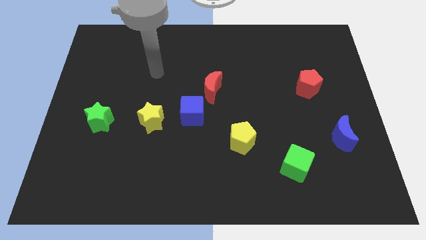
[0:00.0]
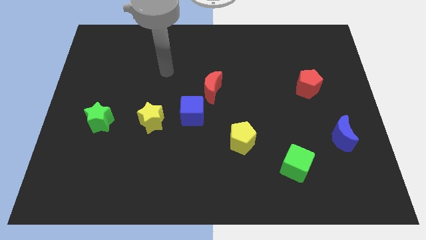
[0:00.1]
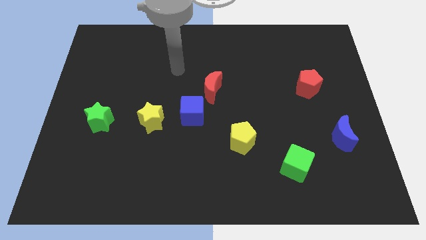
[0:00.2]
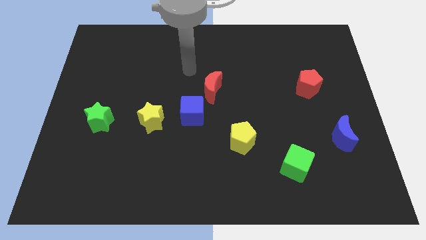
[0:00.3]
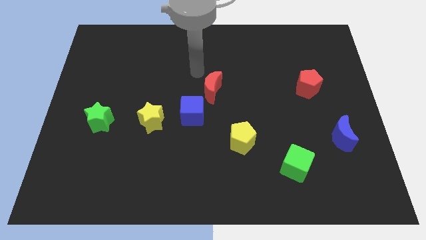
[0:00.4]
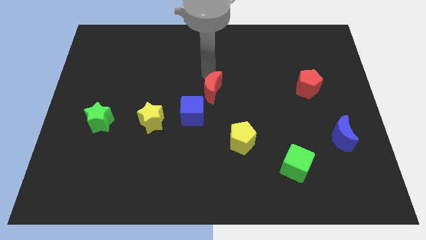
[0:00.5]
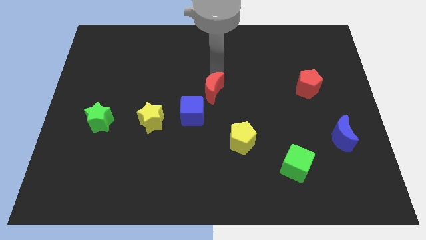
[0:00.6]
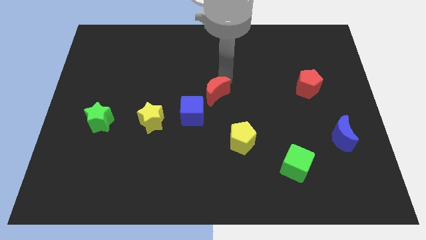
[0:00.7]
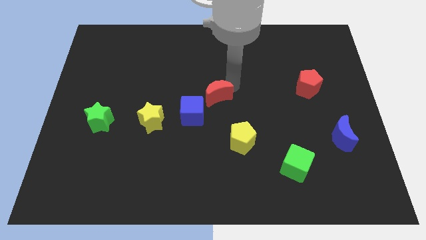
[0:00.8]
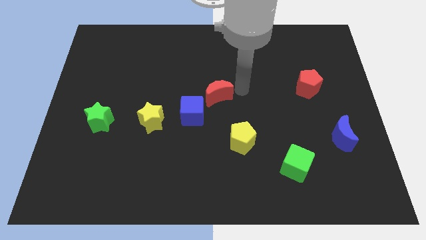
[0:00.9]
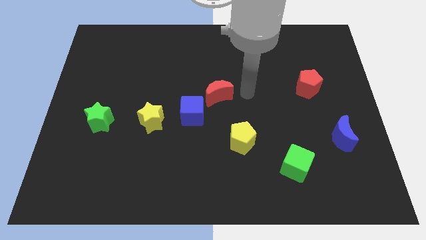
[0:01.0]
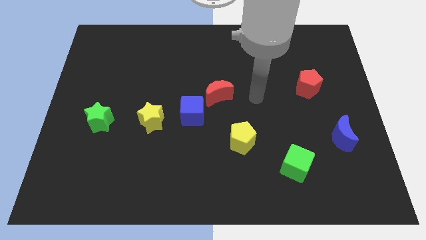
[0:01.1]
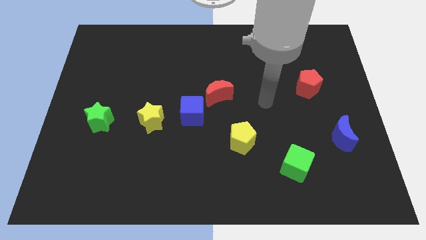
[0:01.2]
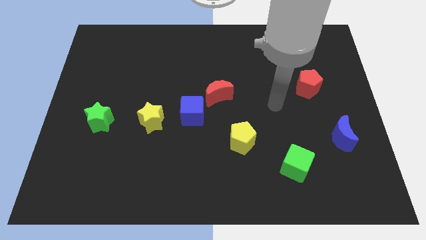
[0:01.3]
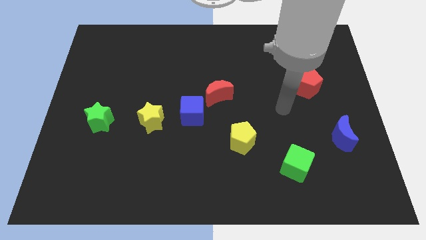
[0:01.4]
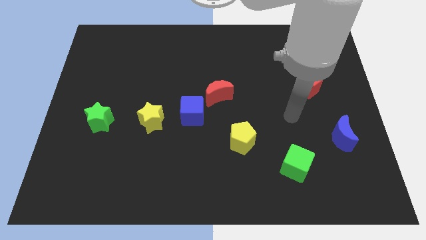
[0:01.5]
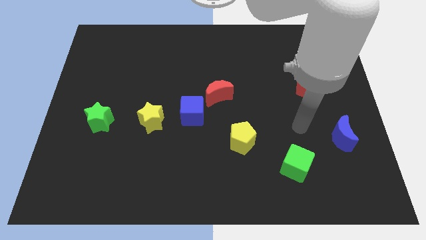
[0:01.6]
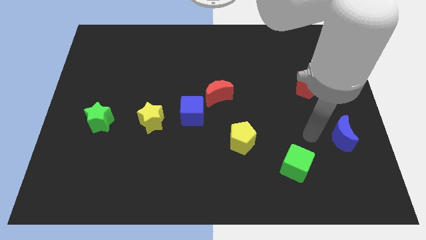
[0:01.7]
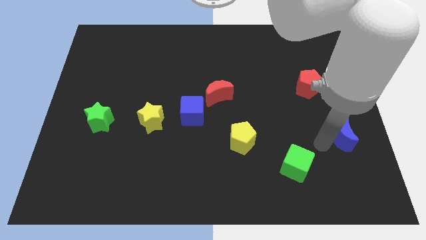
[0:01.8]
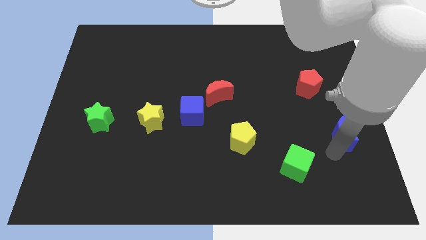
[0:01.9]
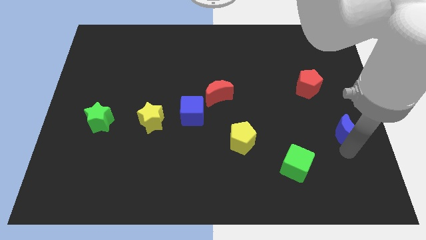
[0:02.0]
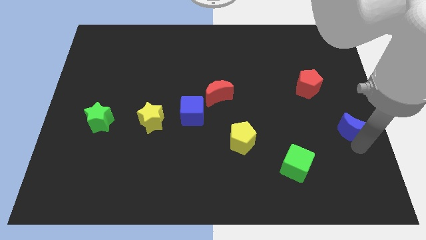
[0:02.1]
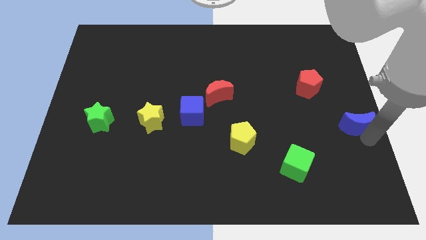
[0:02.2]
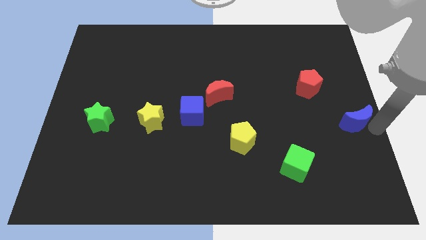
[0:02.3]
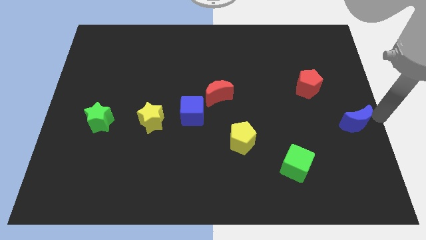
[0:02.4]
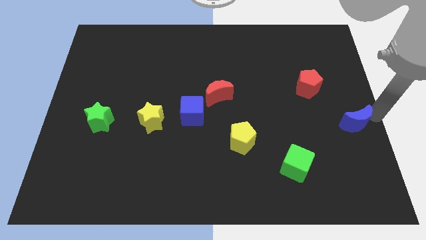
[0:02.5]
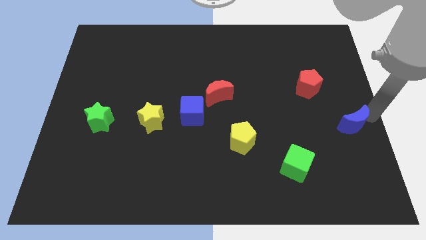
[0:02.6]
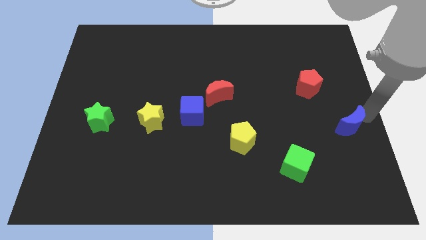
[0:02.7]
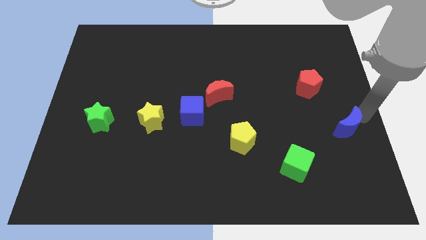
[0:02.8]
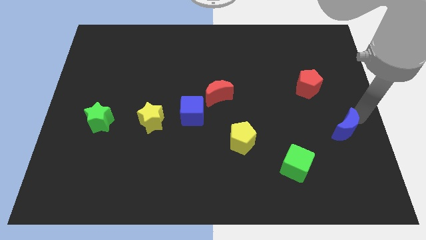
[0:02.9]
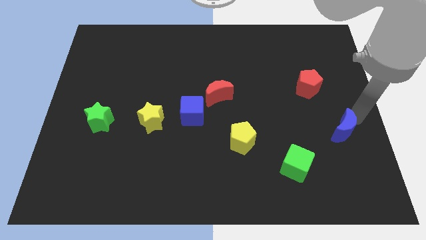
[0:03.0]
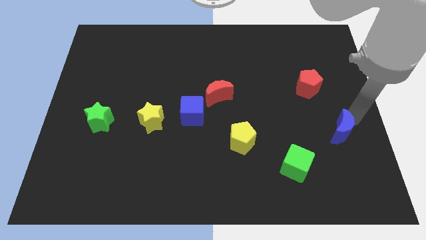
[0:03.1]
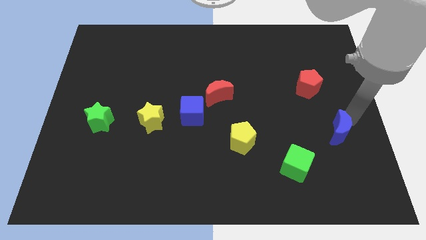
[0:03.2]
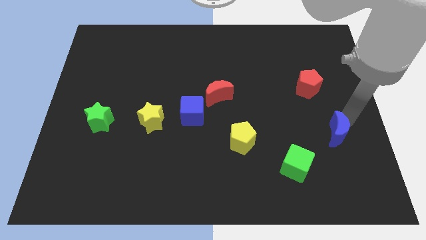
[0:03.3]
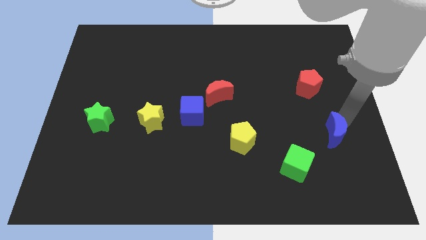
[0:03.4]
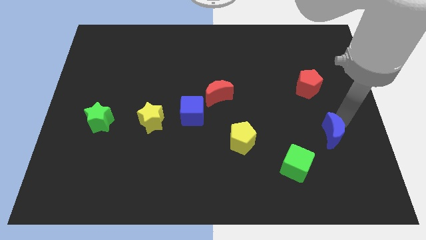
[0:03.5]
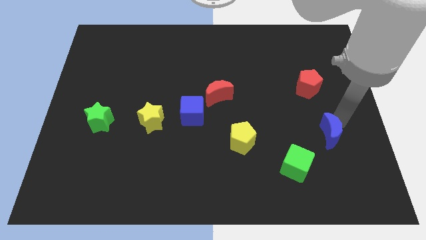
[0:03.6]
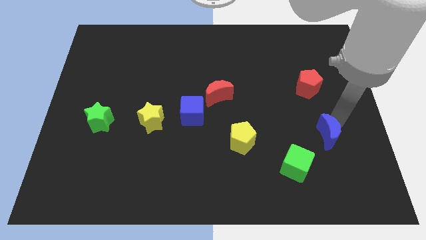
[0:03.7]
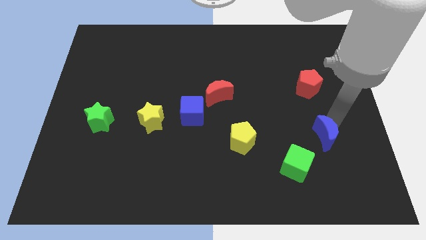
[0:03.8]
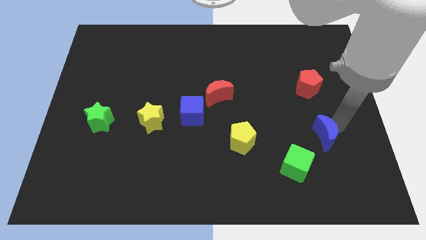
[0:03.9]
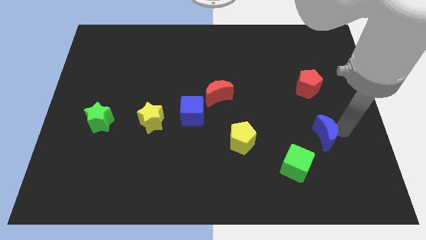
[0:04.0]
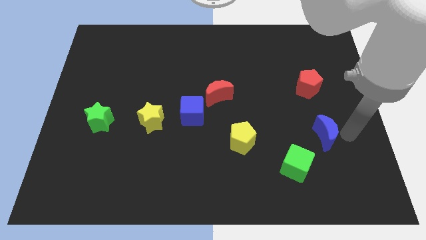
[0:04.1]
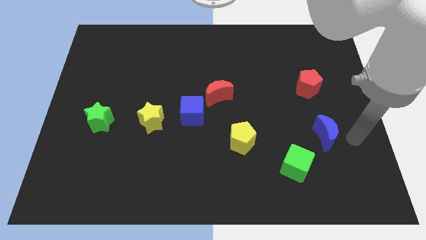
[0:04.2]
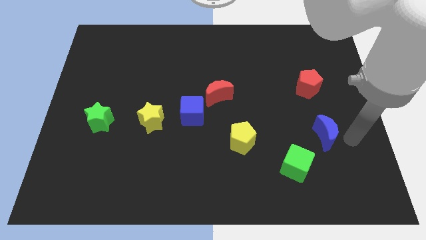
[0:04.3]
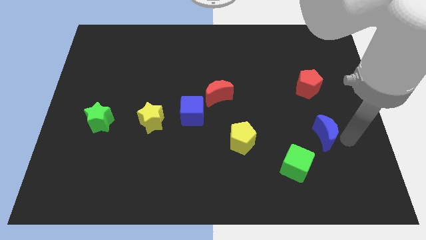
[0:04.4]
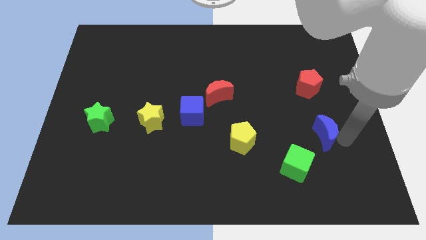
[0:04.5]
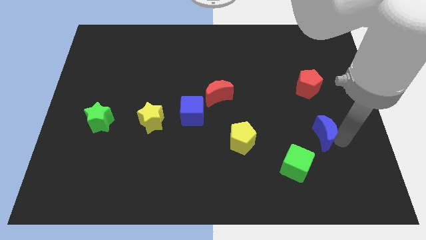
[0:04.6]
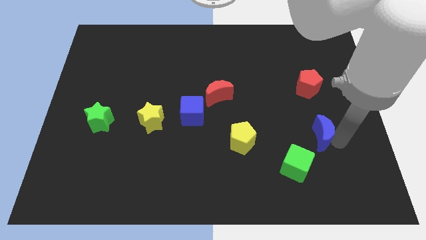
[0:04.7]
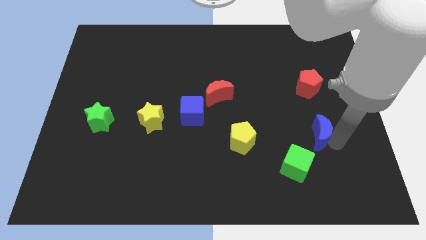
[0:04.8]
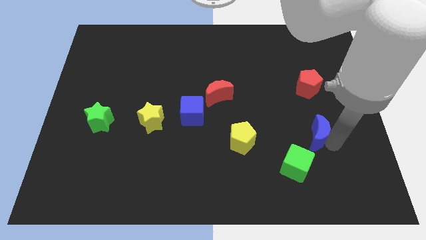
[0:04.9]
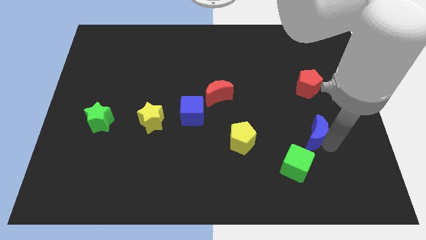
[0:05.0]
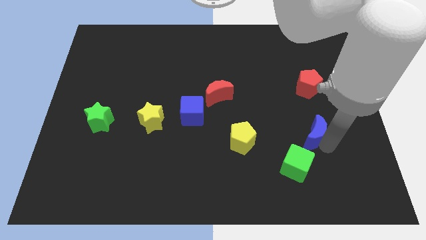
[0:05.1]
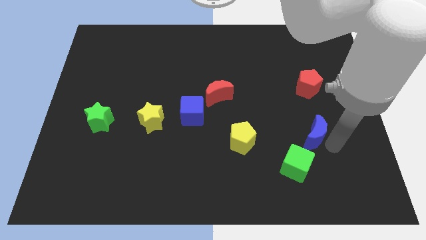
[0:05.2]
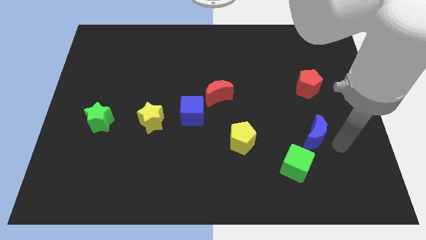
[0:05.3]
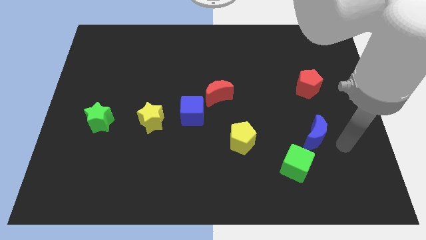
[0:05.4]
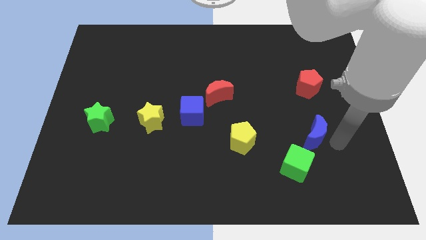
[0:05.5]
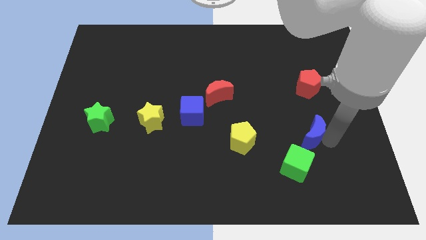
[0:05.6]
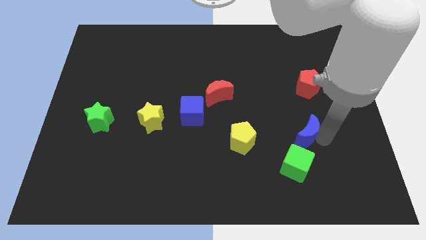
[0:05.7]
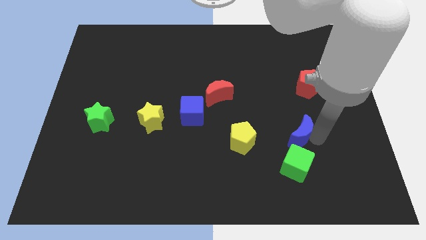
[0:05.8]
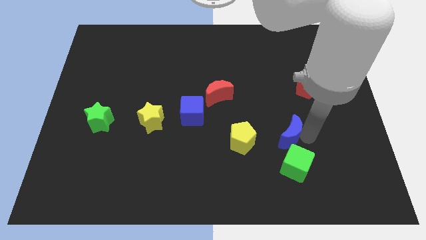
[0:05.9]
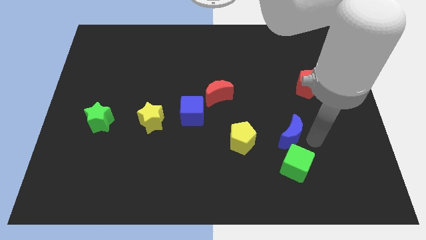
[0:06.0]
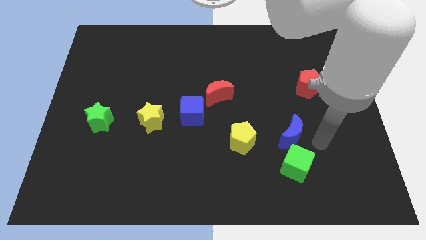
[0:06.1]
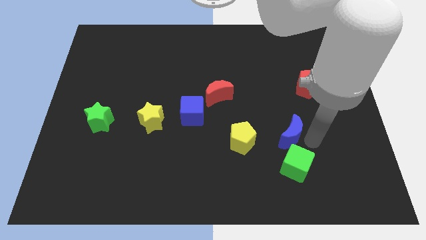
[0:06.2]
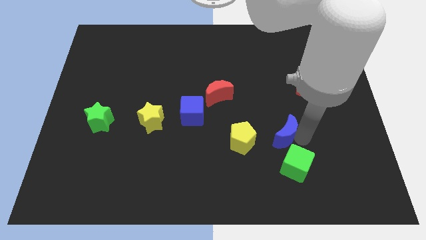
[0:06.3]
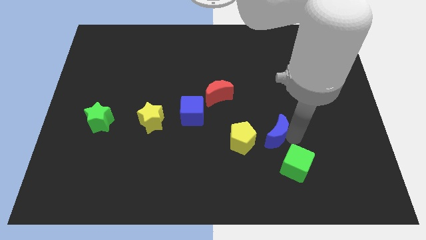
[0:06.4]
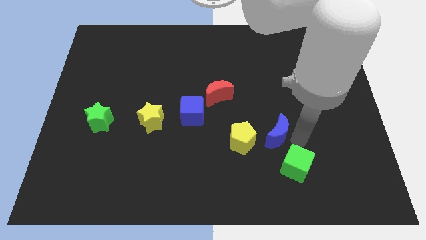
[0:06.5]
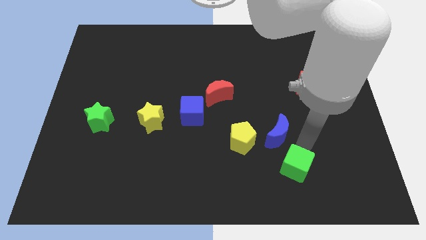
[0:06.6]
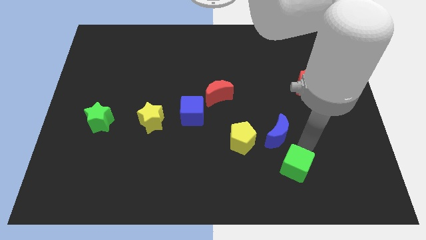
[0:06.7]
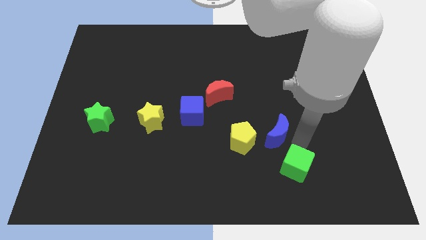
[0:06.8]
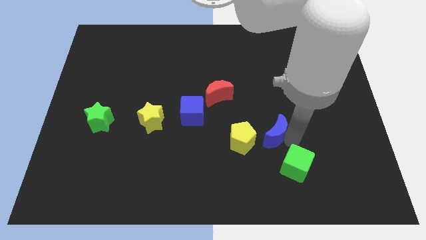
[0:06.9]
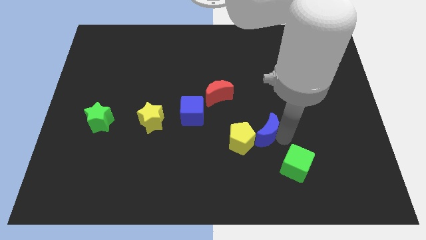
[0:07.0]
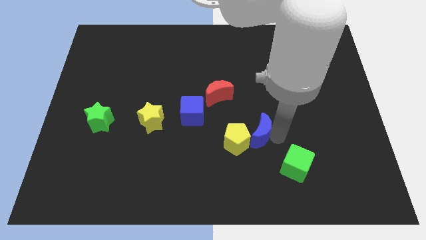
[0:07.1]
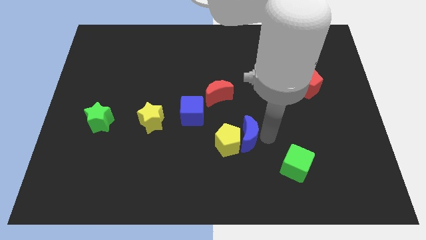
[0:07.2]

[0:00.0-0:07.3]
push the blue moon to the left

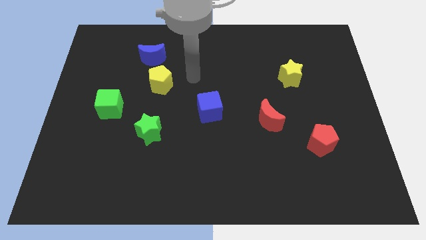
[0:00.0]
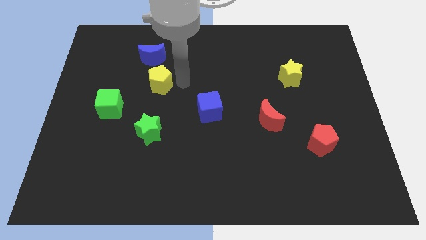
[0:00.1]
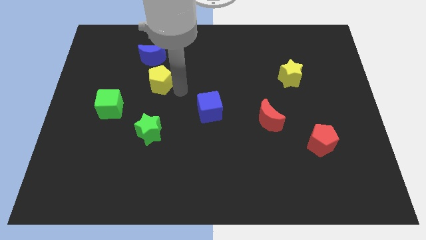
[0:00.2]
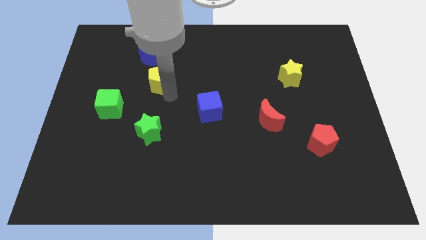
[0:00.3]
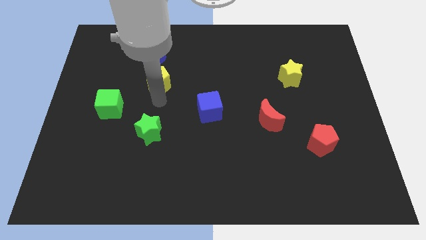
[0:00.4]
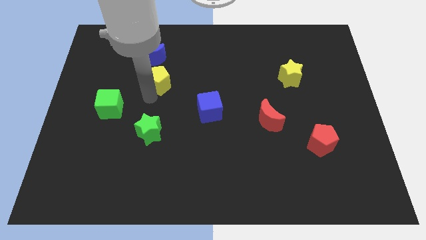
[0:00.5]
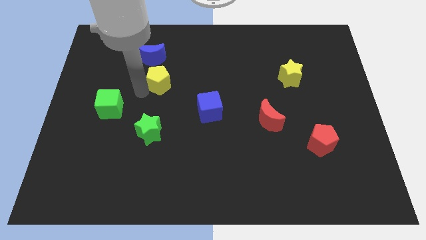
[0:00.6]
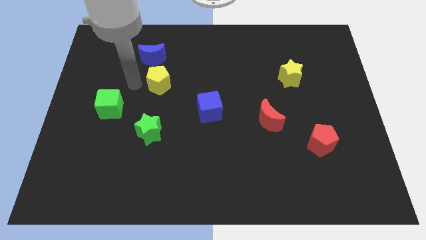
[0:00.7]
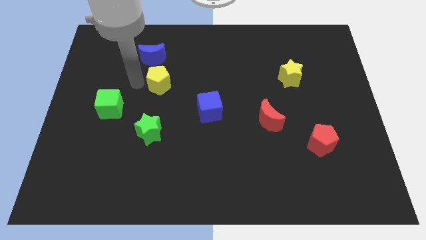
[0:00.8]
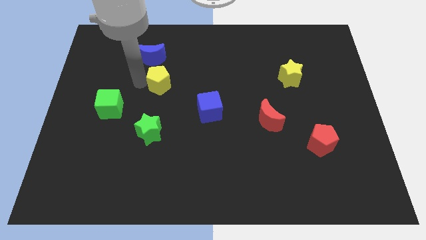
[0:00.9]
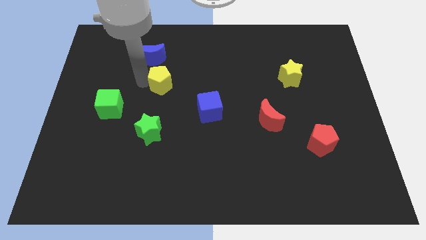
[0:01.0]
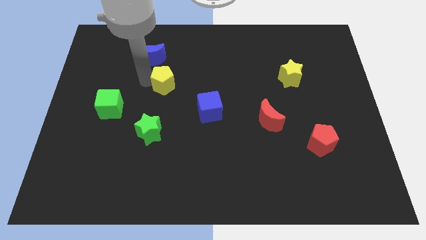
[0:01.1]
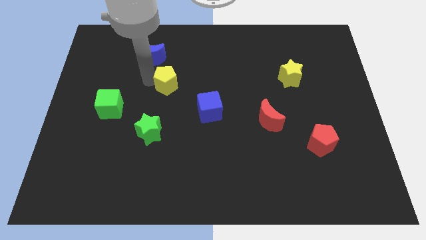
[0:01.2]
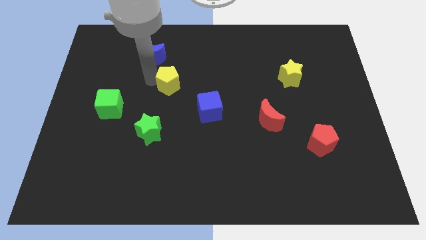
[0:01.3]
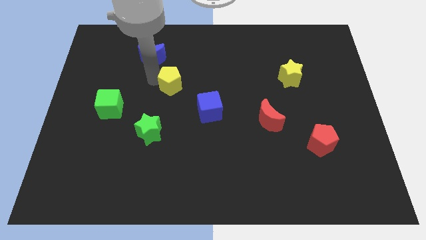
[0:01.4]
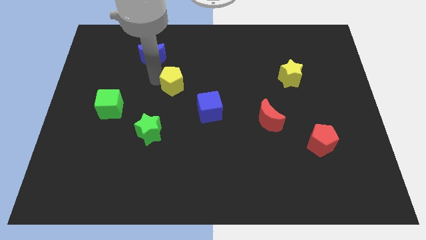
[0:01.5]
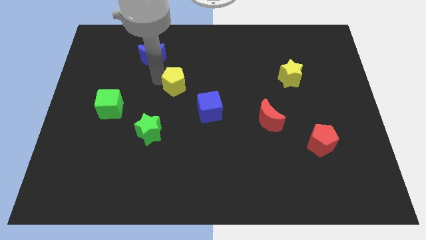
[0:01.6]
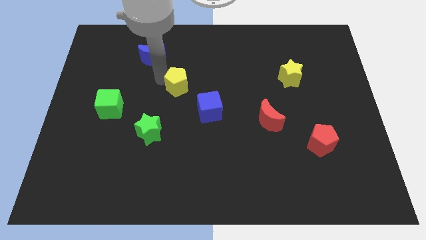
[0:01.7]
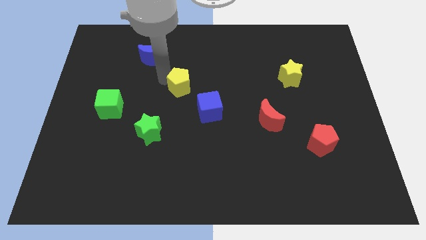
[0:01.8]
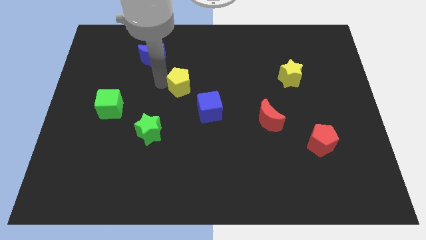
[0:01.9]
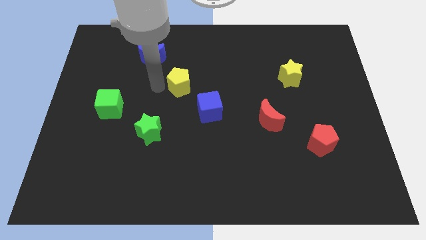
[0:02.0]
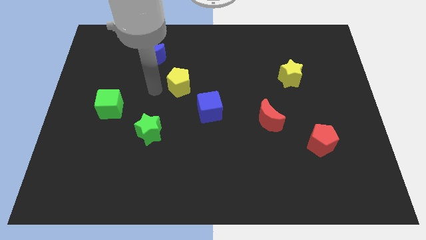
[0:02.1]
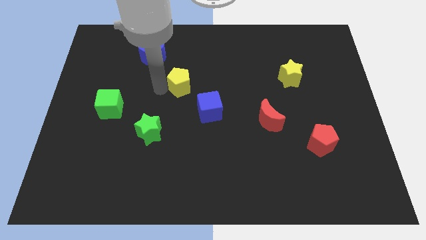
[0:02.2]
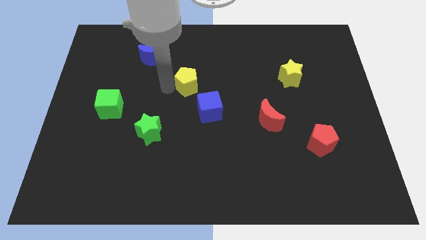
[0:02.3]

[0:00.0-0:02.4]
move the yellow pentagon to the right slightly
